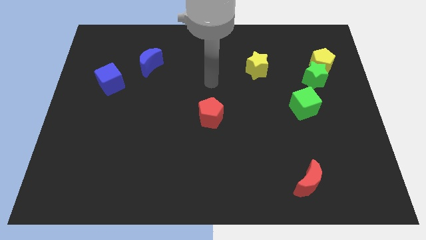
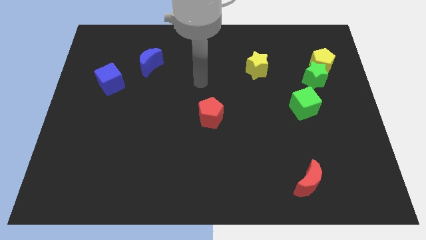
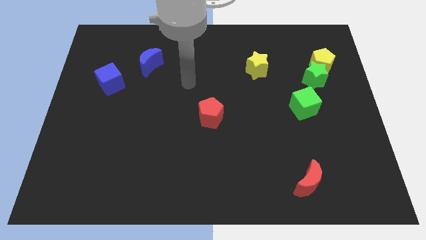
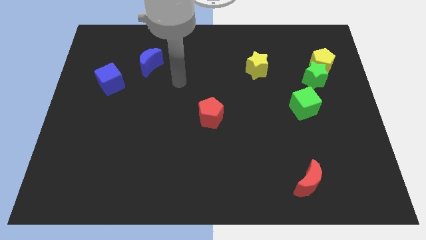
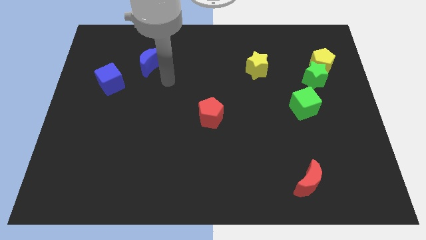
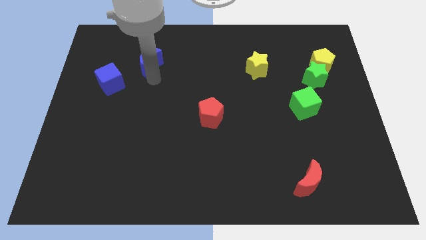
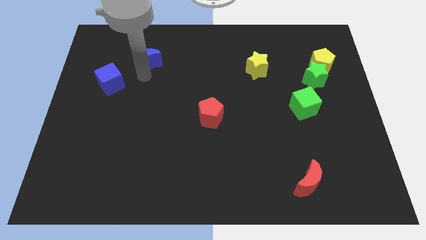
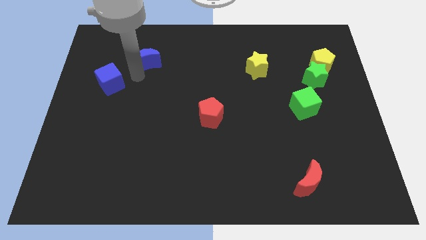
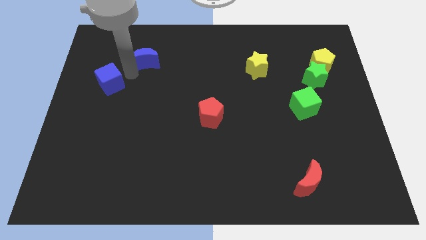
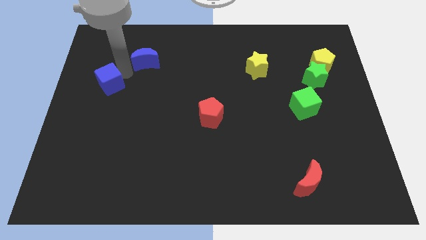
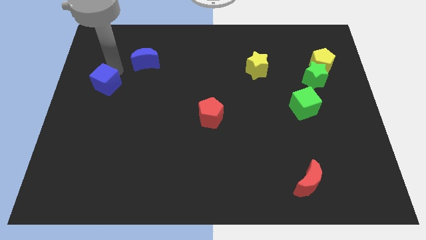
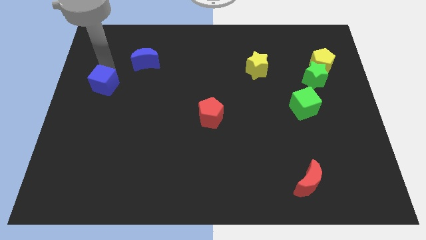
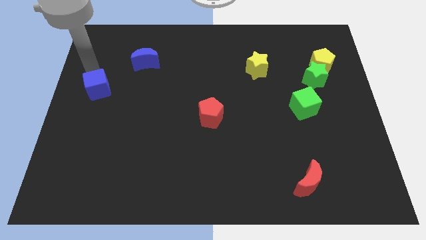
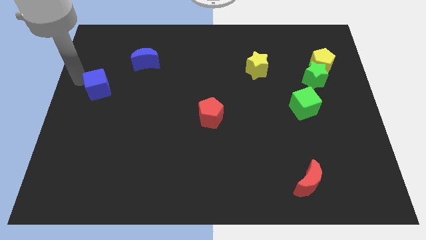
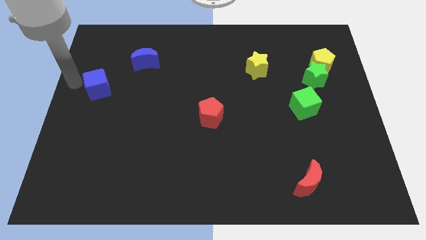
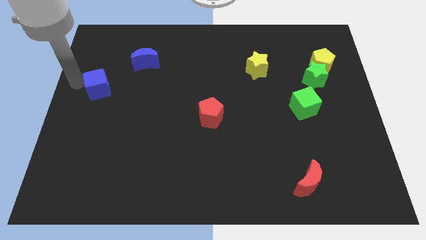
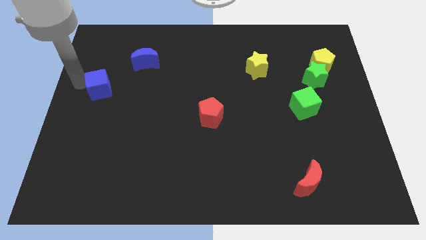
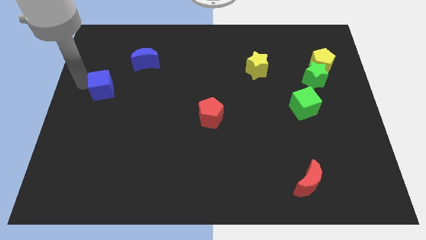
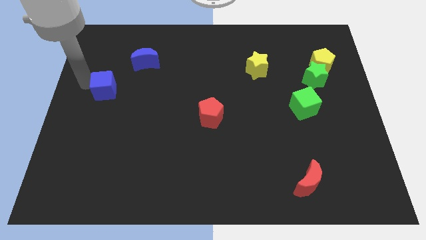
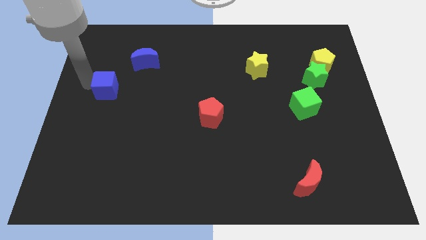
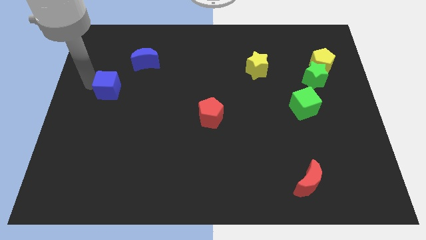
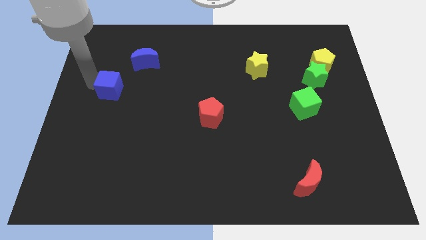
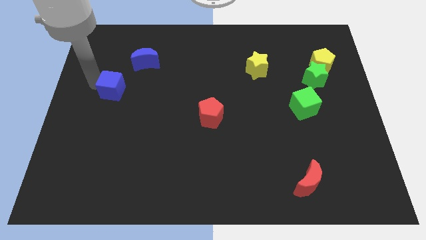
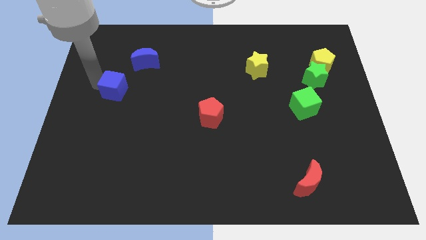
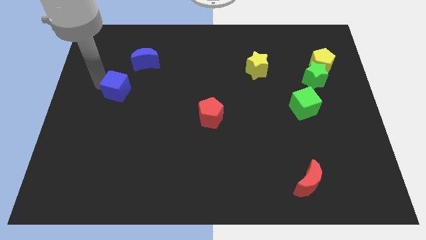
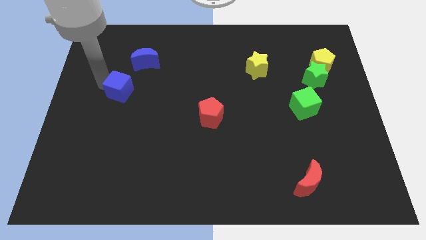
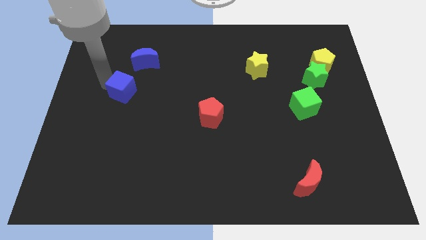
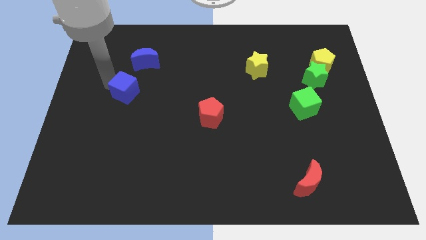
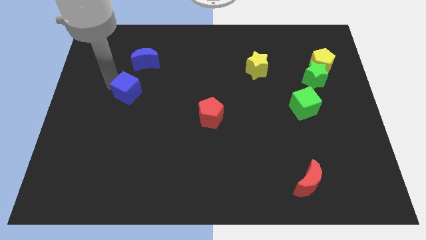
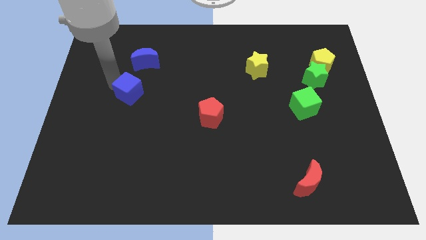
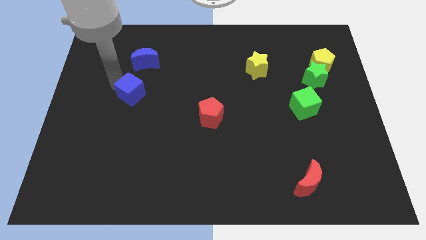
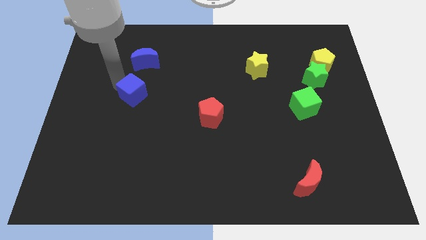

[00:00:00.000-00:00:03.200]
move the blue cube diagonally downwards and to the right a little bit

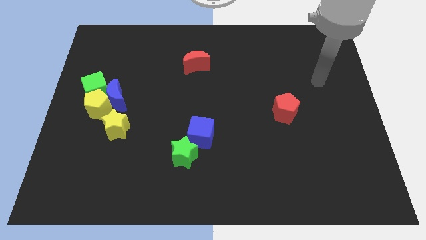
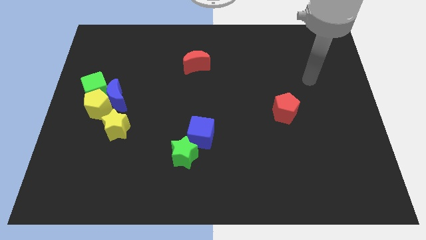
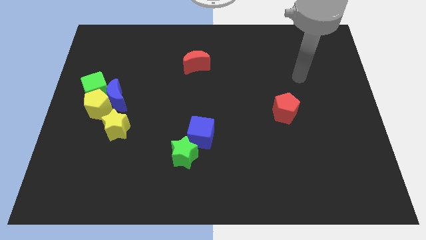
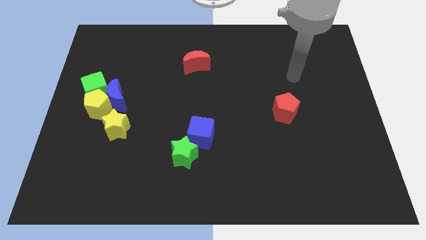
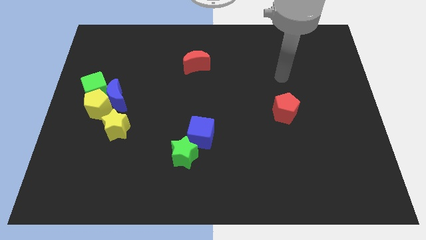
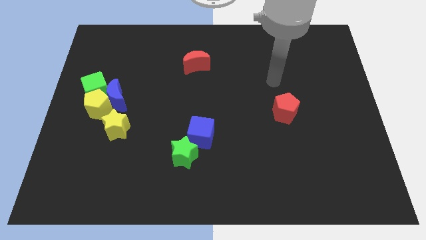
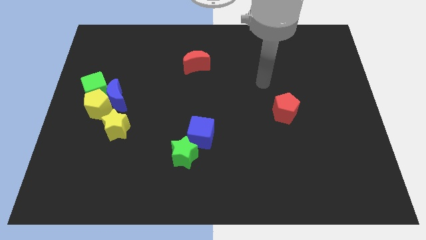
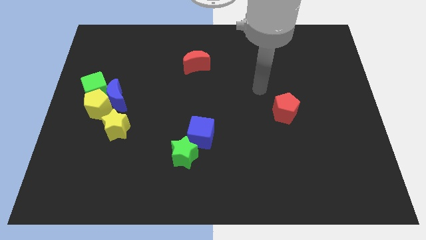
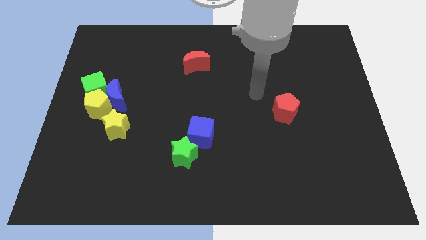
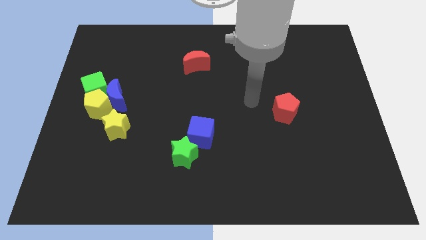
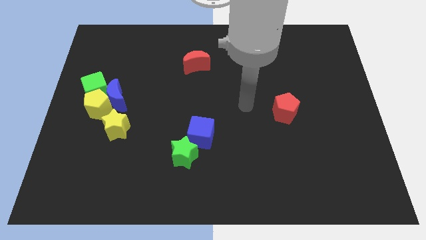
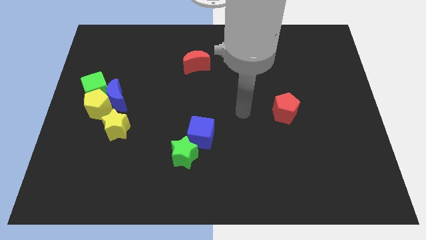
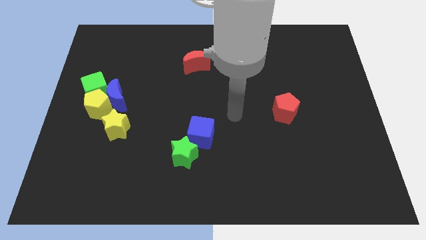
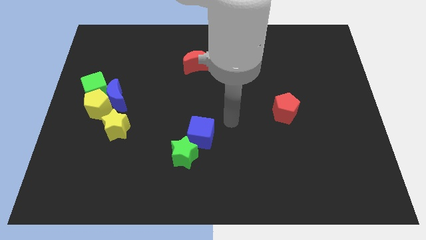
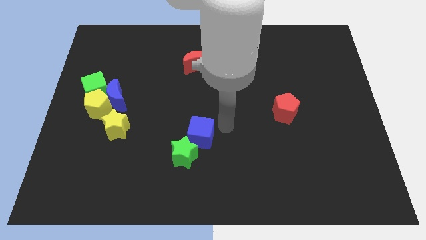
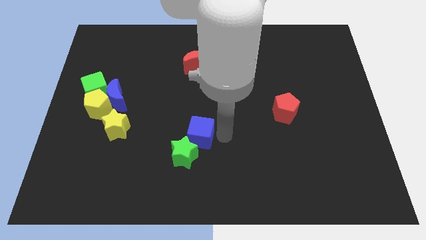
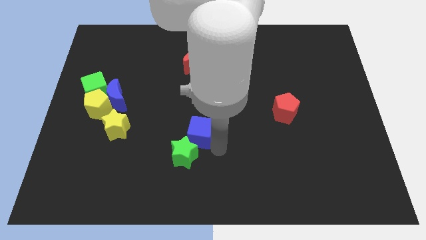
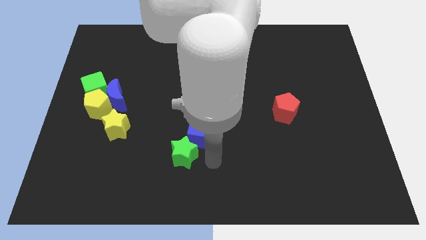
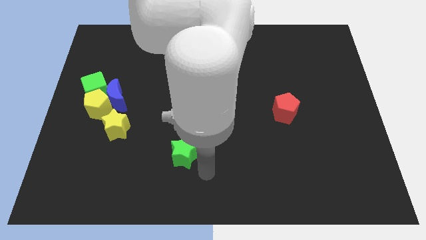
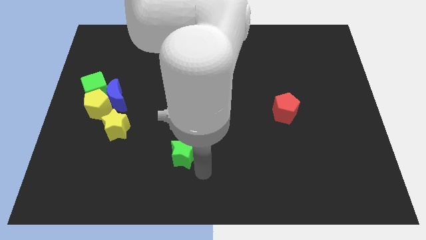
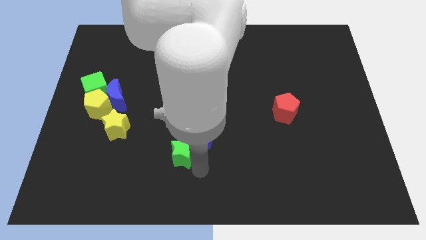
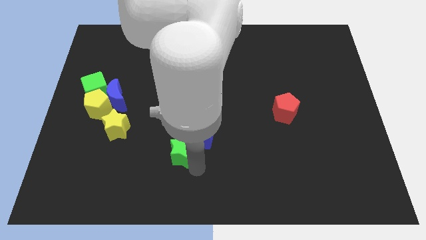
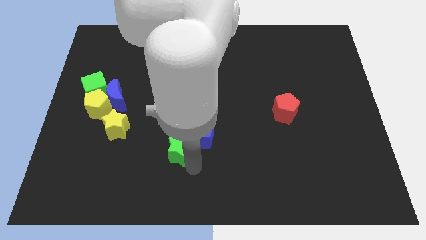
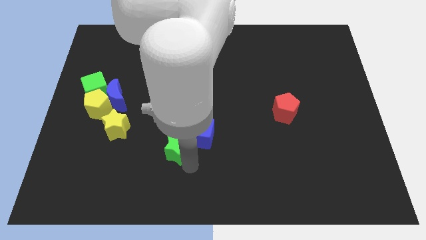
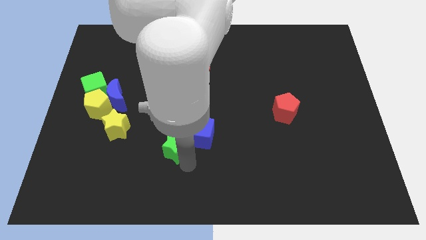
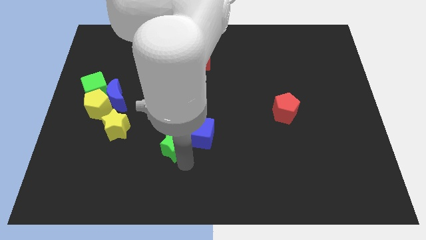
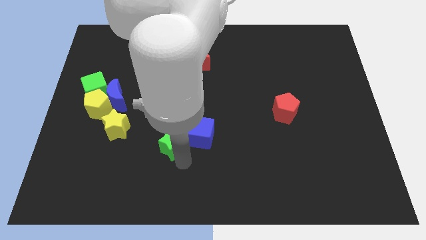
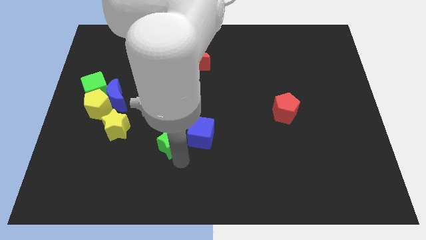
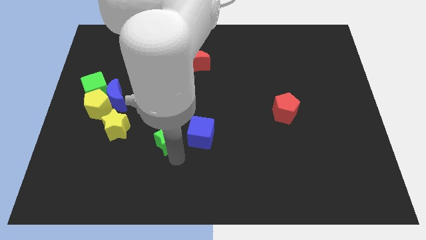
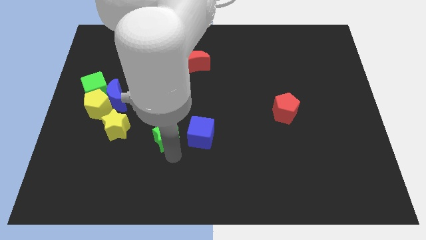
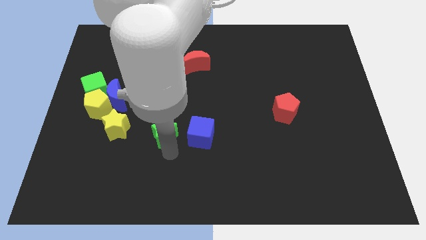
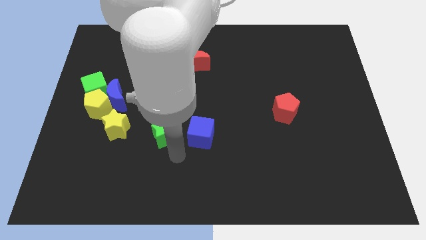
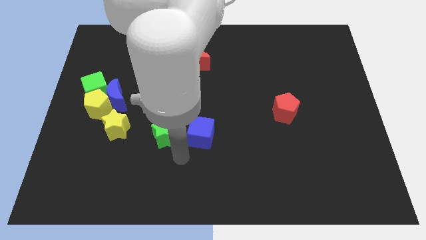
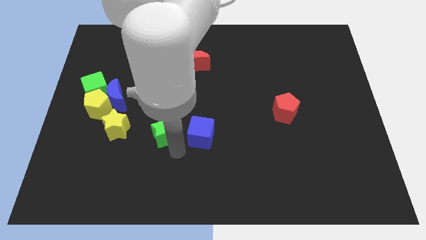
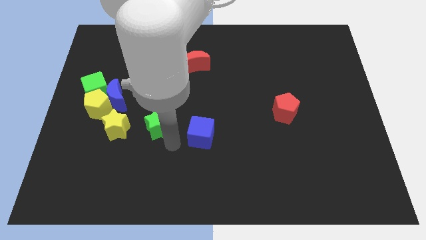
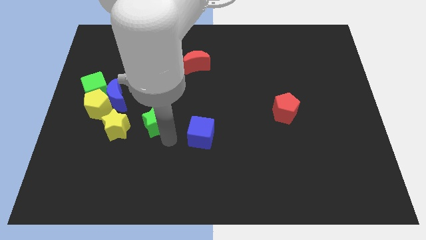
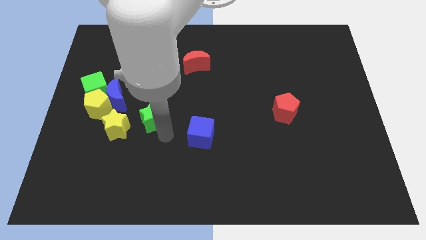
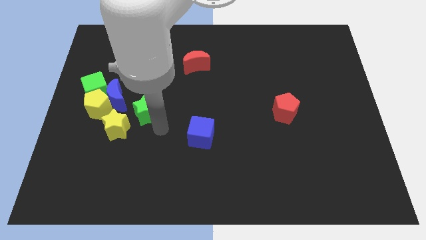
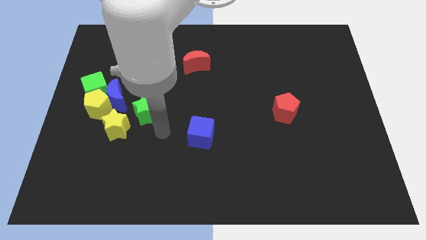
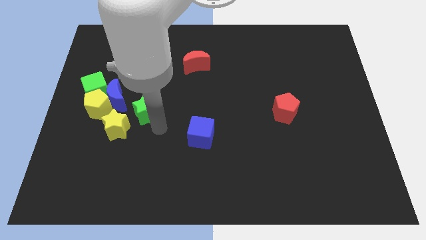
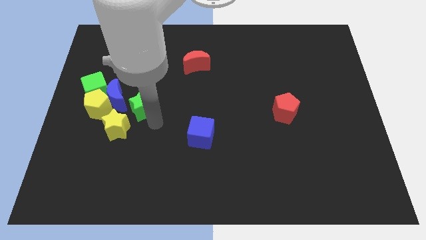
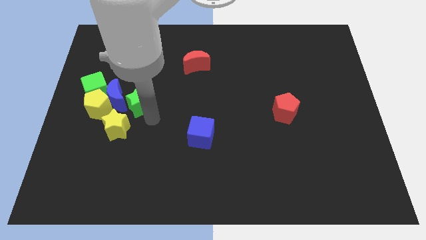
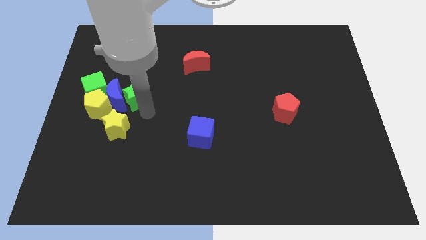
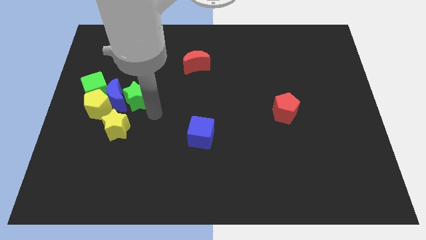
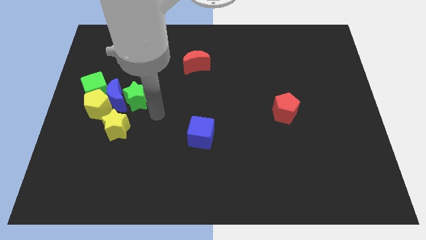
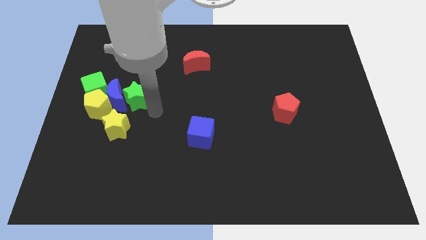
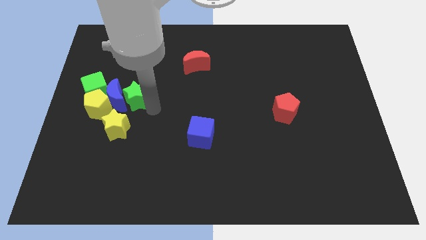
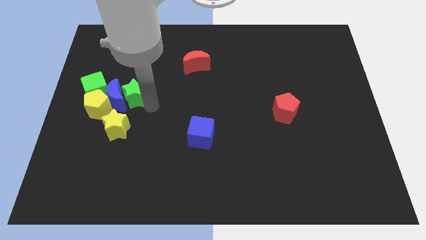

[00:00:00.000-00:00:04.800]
slide the green star up and to the left

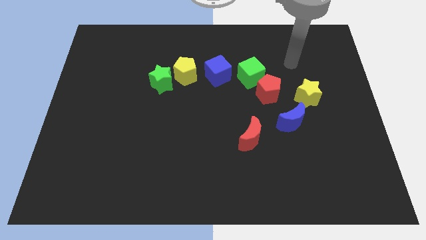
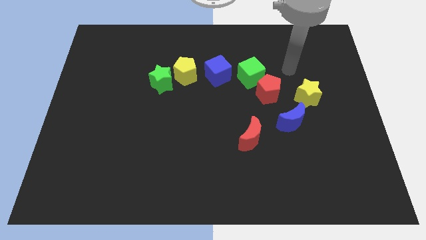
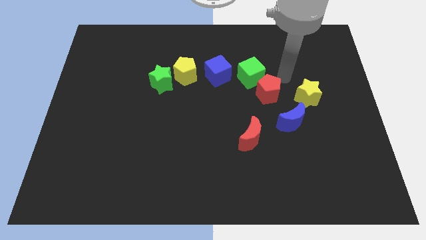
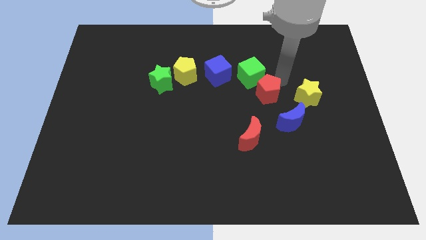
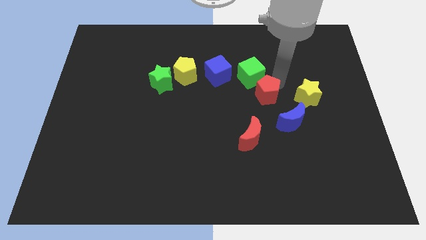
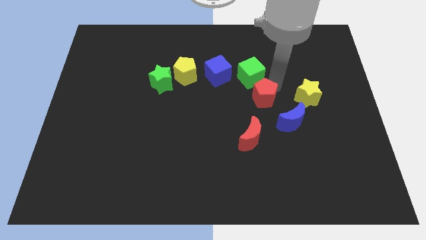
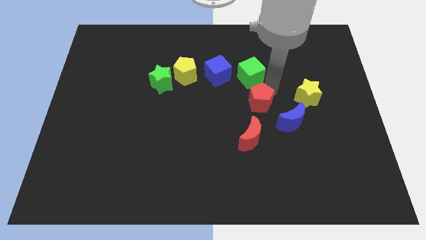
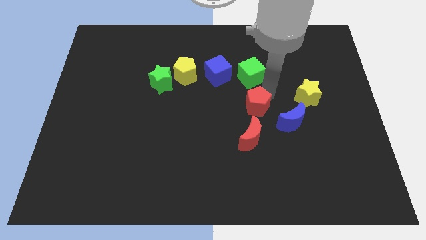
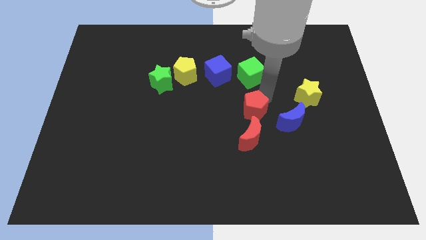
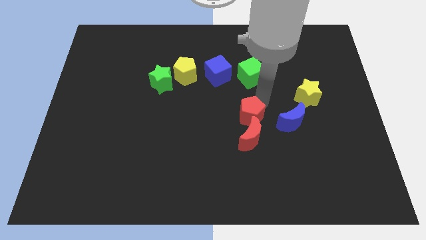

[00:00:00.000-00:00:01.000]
slide the red pentagon slightly diagonally down and left
